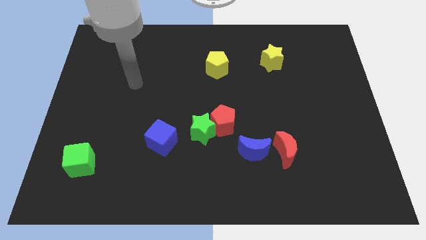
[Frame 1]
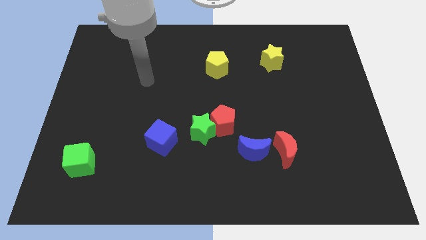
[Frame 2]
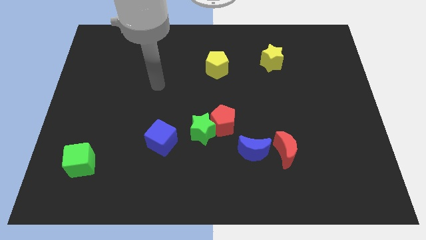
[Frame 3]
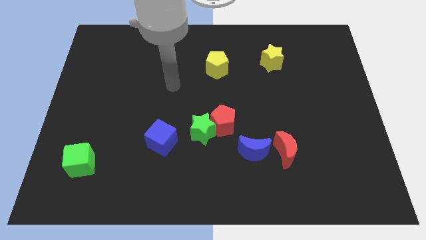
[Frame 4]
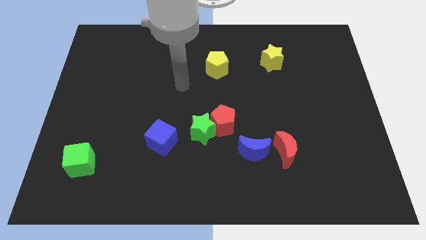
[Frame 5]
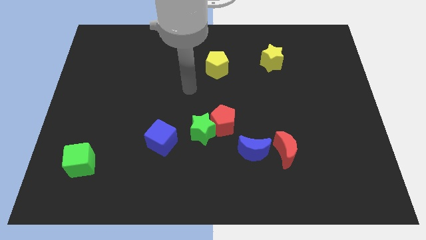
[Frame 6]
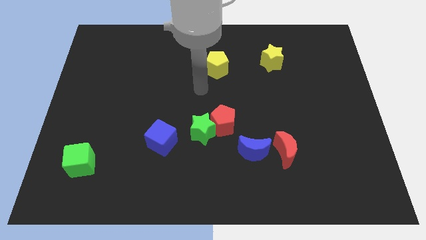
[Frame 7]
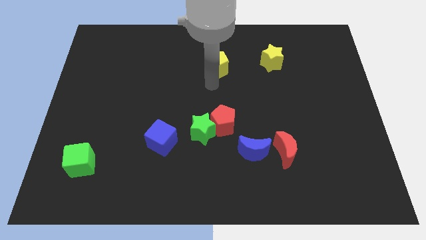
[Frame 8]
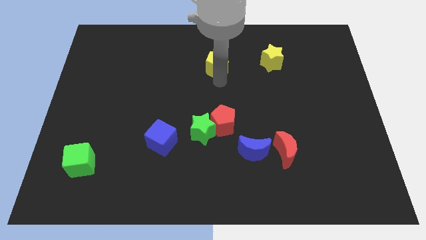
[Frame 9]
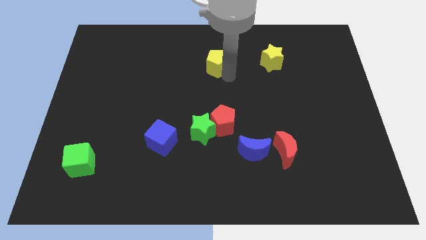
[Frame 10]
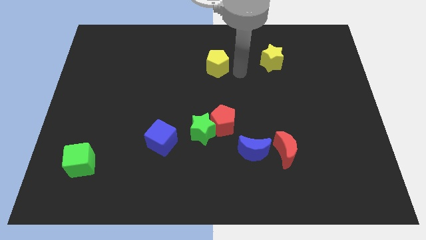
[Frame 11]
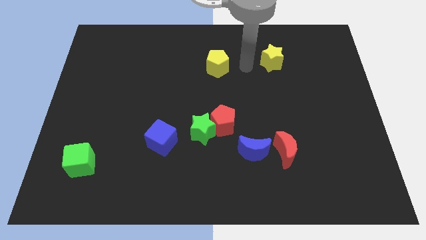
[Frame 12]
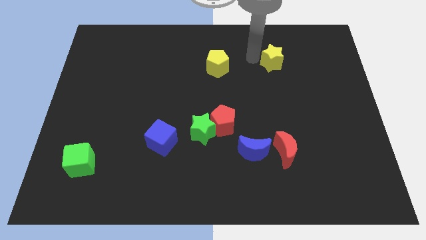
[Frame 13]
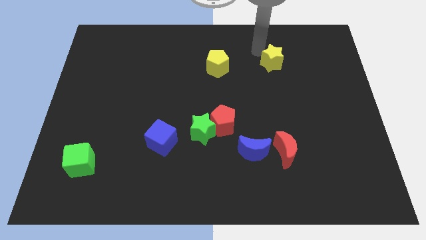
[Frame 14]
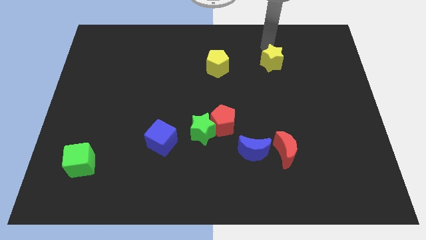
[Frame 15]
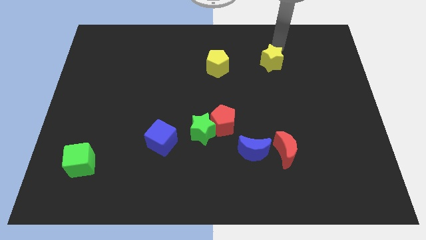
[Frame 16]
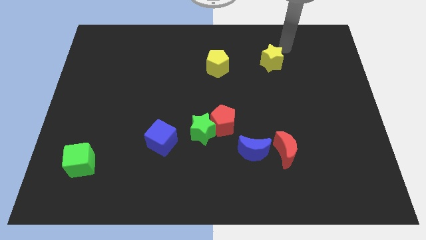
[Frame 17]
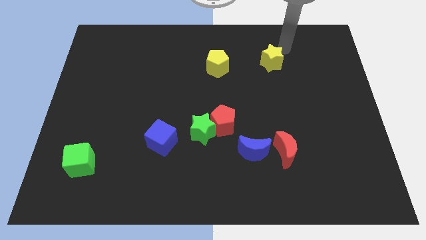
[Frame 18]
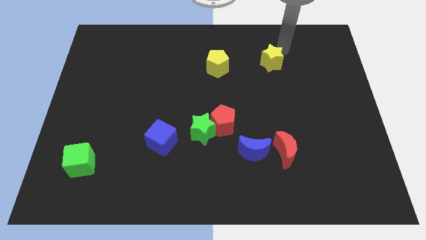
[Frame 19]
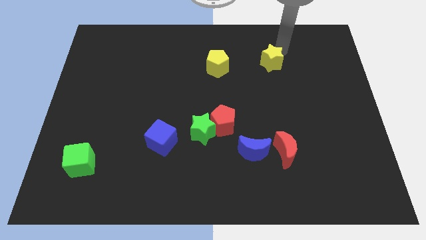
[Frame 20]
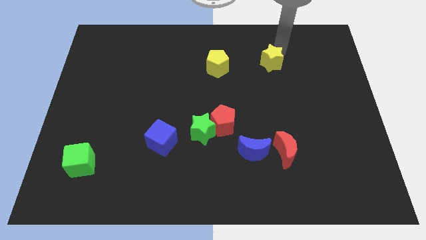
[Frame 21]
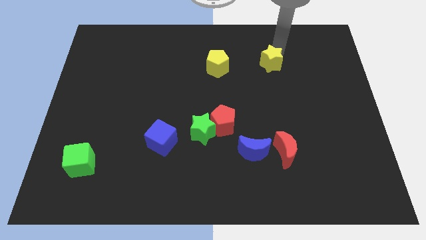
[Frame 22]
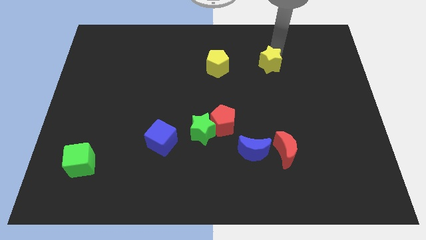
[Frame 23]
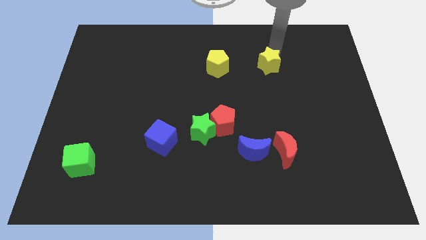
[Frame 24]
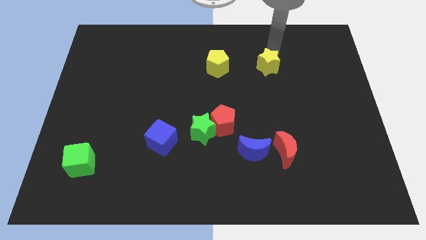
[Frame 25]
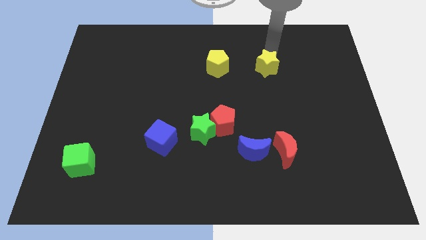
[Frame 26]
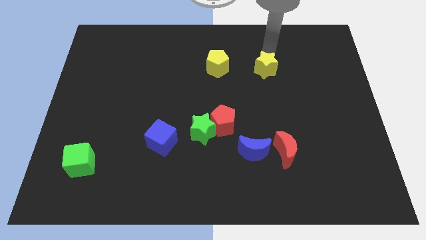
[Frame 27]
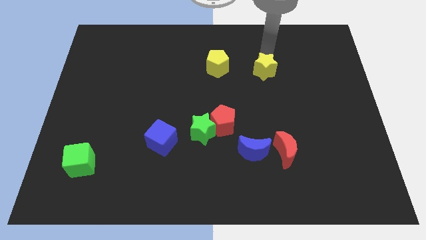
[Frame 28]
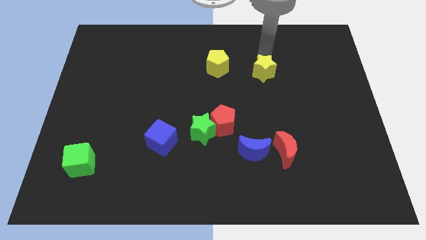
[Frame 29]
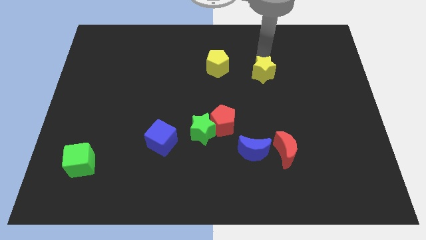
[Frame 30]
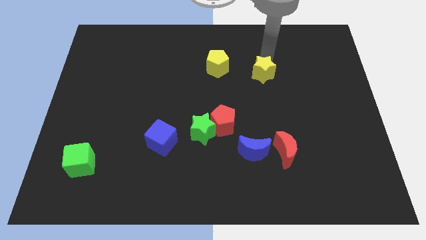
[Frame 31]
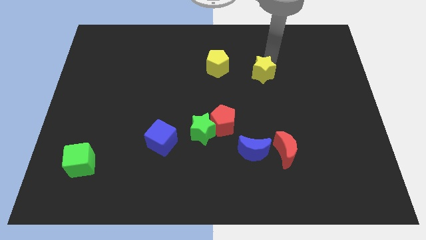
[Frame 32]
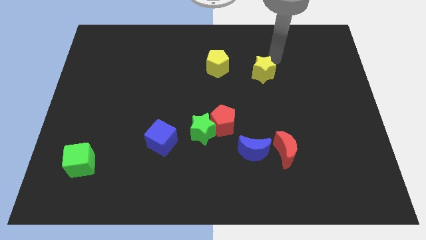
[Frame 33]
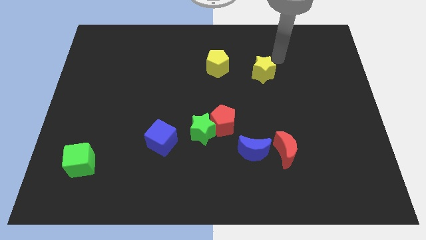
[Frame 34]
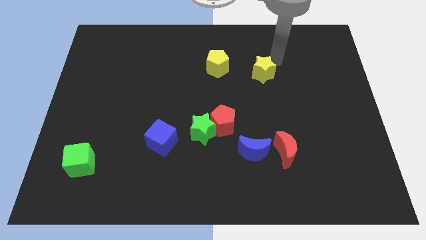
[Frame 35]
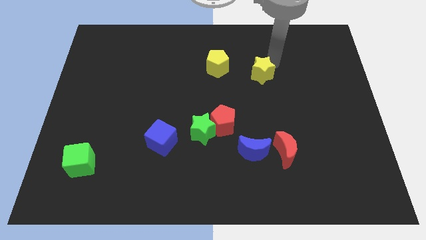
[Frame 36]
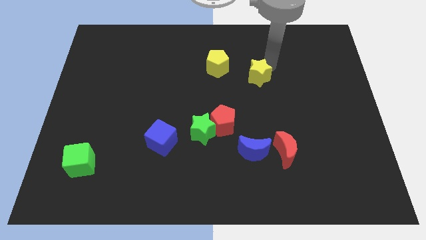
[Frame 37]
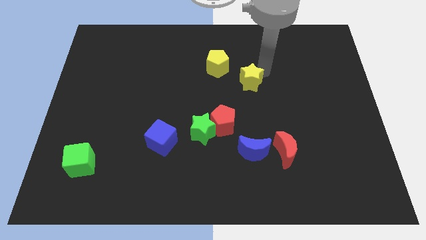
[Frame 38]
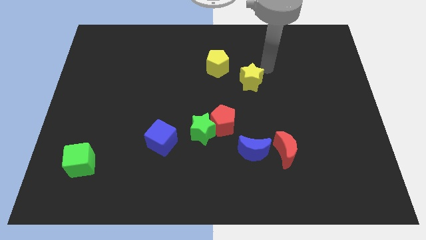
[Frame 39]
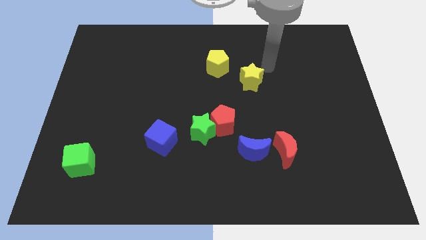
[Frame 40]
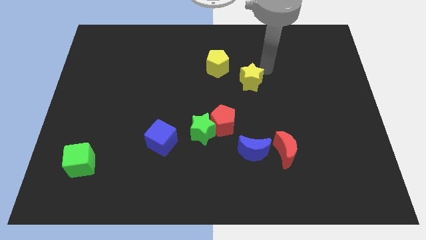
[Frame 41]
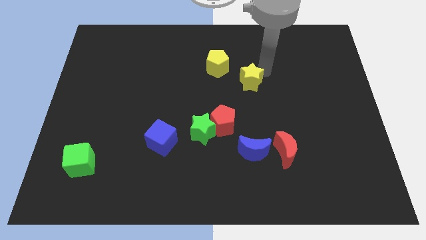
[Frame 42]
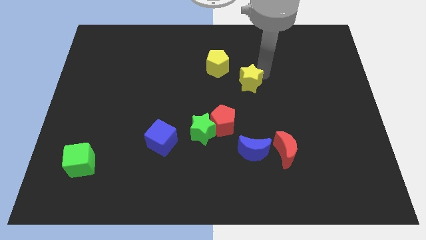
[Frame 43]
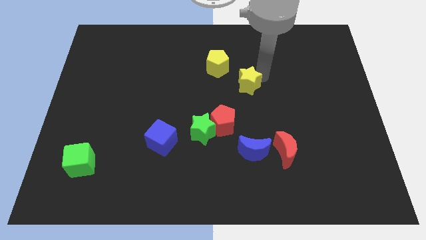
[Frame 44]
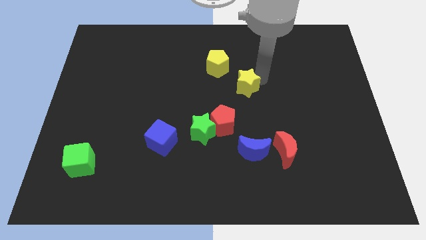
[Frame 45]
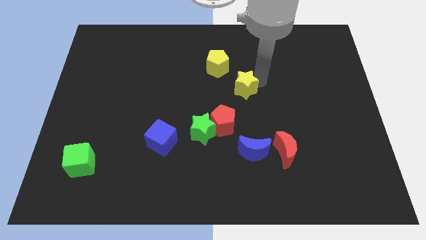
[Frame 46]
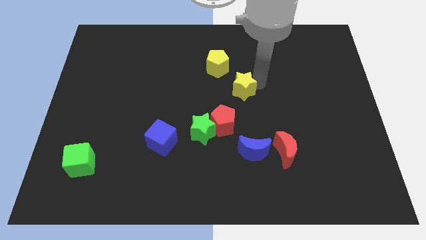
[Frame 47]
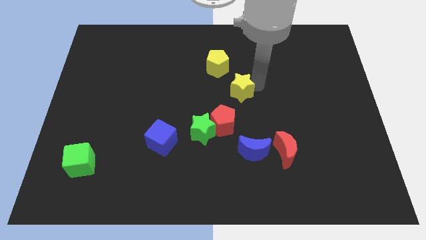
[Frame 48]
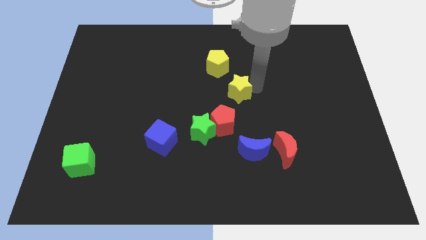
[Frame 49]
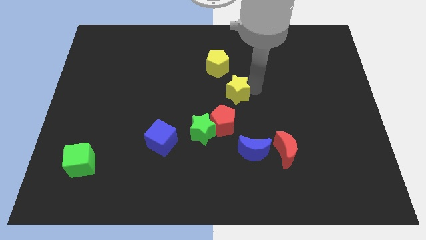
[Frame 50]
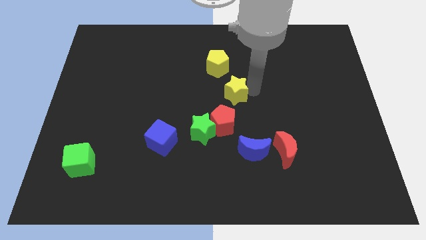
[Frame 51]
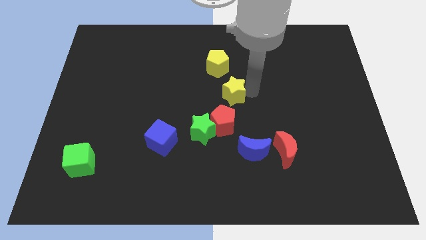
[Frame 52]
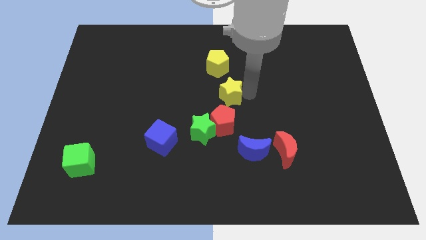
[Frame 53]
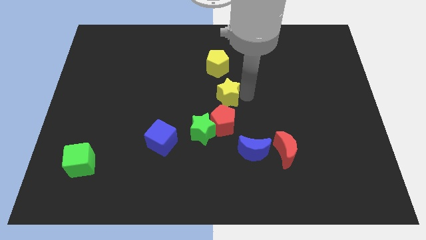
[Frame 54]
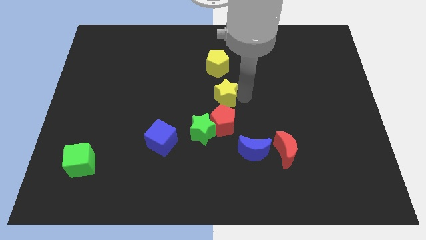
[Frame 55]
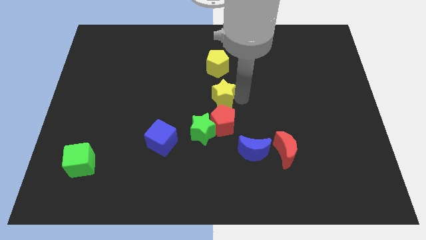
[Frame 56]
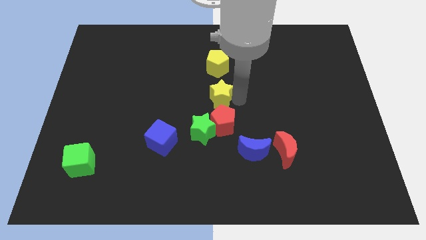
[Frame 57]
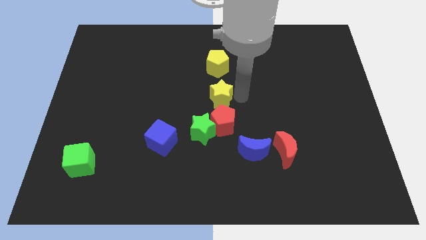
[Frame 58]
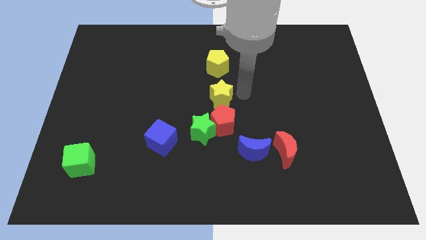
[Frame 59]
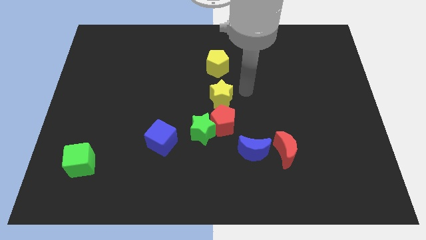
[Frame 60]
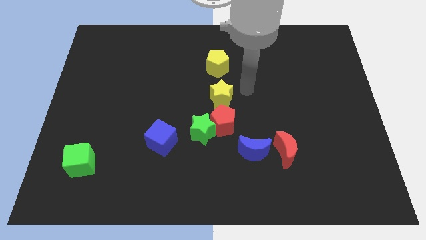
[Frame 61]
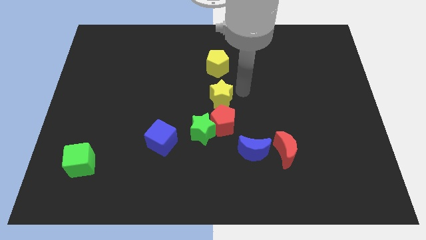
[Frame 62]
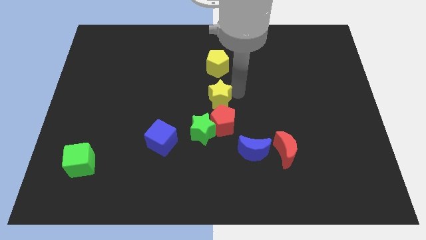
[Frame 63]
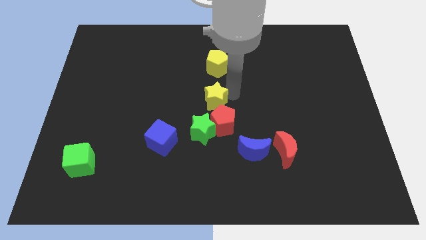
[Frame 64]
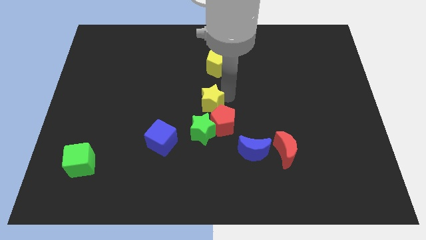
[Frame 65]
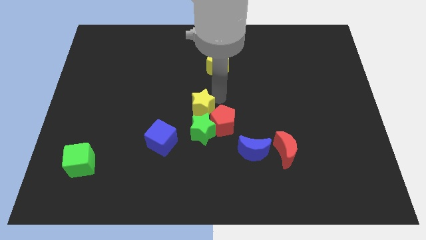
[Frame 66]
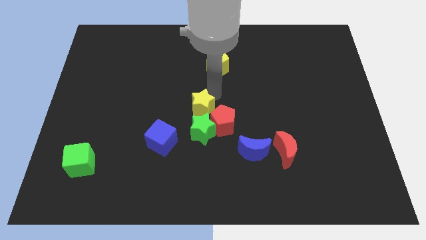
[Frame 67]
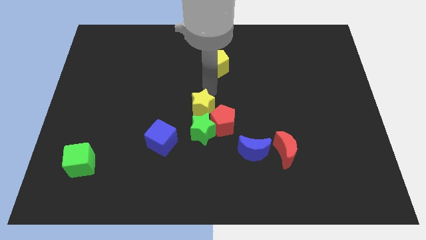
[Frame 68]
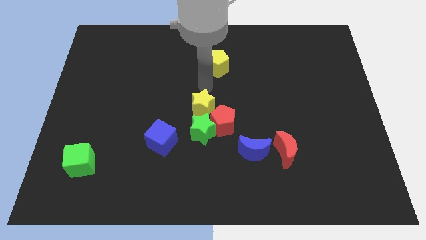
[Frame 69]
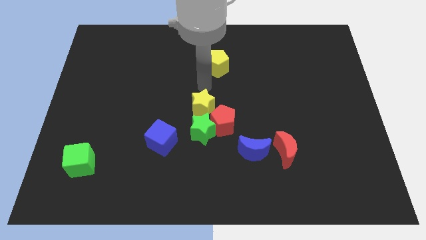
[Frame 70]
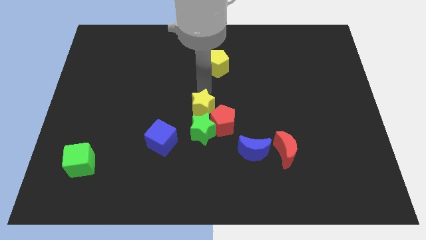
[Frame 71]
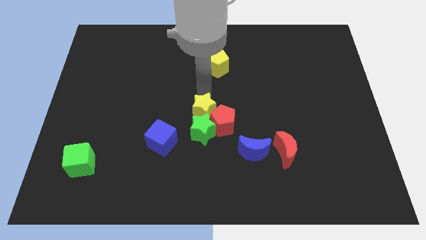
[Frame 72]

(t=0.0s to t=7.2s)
slide the yellow star close to the green star
